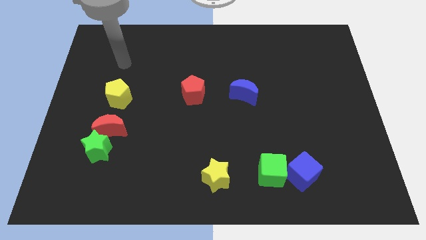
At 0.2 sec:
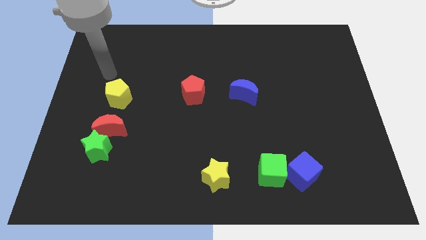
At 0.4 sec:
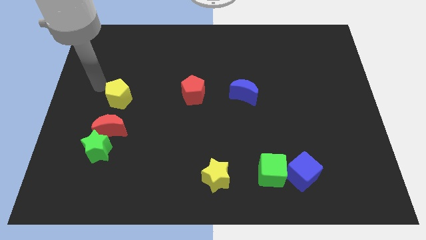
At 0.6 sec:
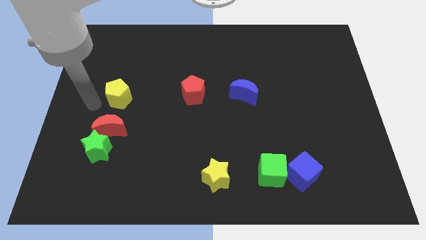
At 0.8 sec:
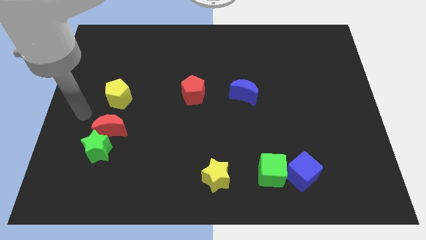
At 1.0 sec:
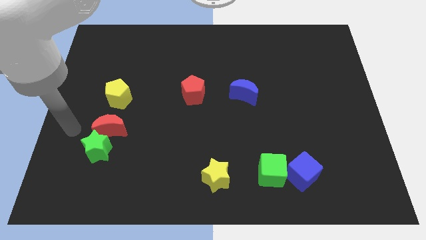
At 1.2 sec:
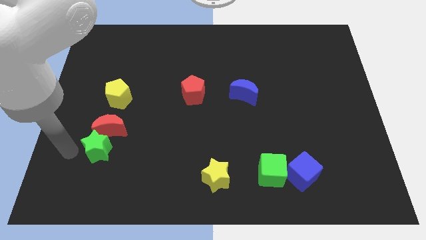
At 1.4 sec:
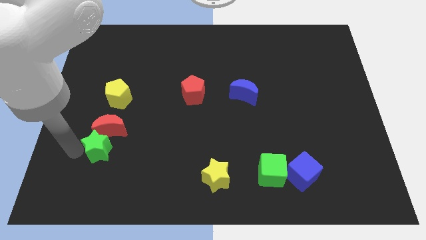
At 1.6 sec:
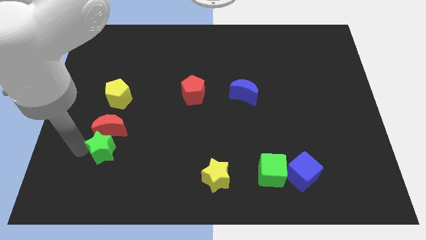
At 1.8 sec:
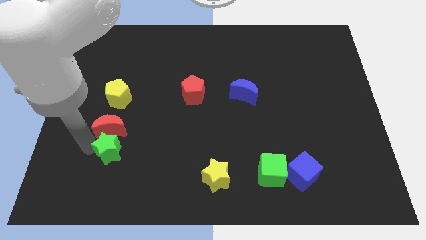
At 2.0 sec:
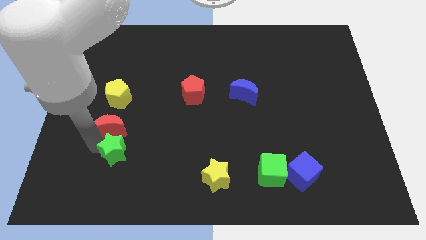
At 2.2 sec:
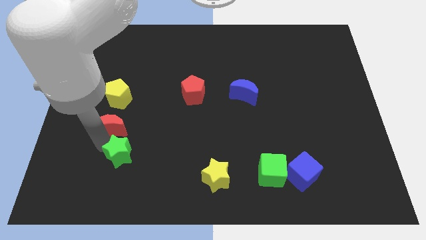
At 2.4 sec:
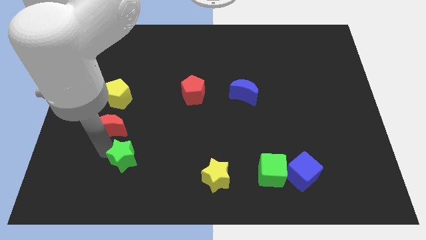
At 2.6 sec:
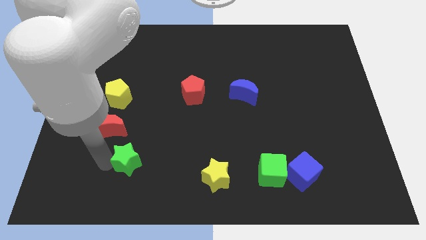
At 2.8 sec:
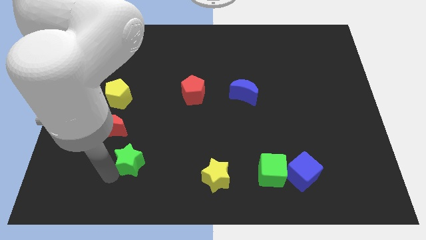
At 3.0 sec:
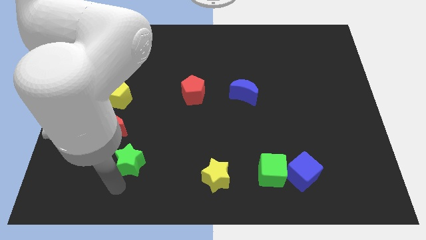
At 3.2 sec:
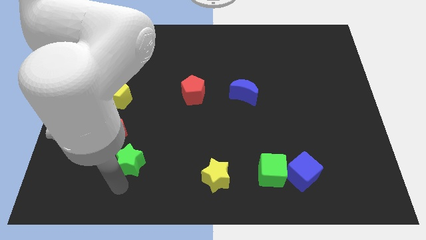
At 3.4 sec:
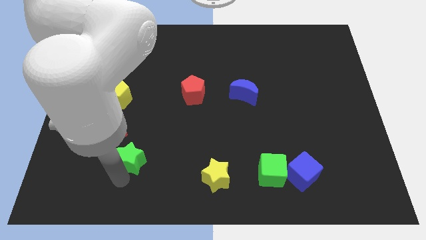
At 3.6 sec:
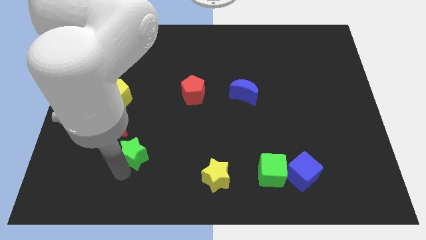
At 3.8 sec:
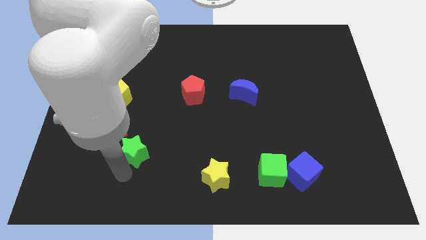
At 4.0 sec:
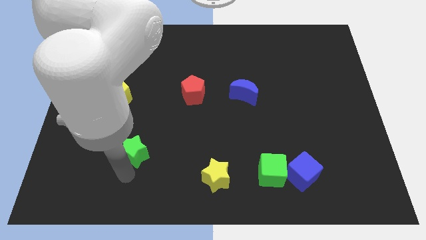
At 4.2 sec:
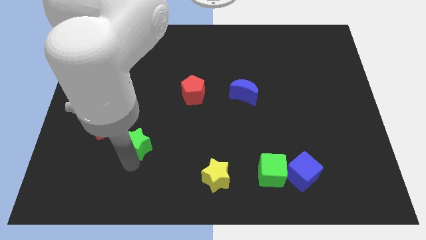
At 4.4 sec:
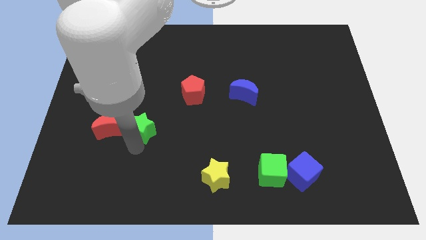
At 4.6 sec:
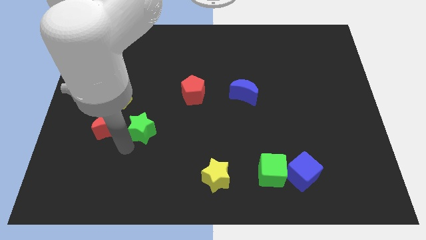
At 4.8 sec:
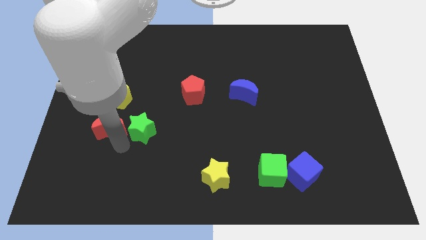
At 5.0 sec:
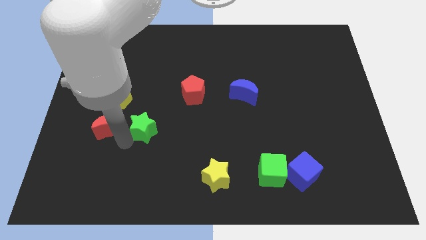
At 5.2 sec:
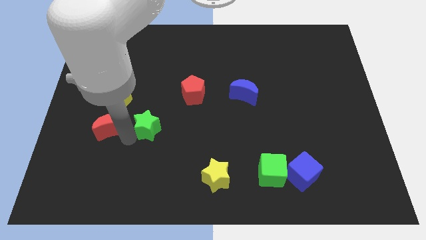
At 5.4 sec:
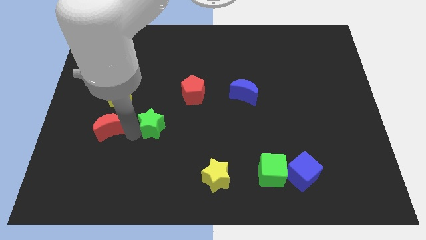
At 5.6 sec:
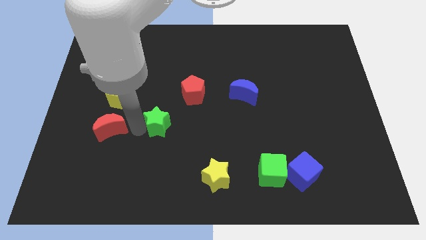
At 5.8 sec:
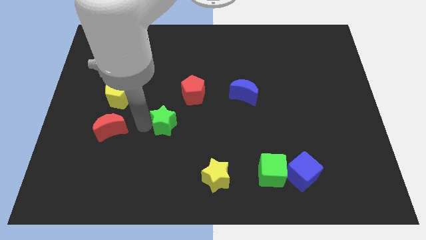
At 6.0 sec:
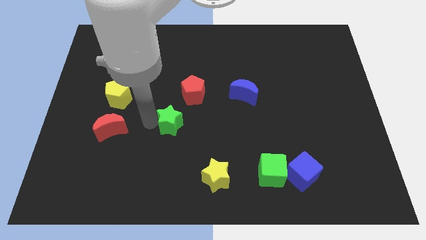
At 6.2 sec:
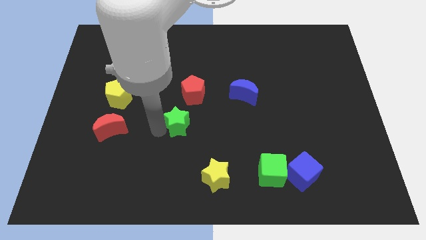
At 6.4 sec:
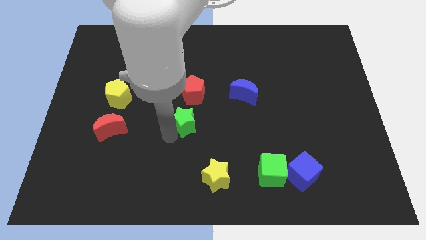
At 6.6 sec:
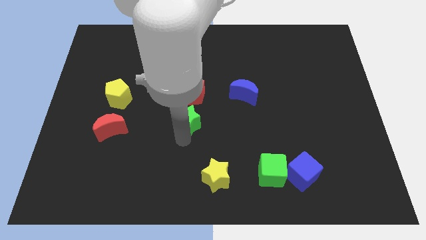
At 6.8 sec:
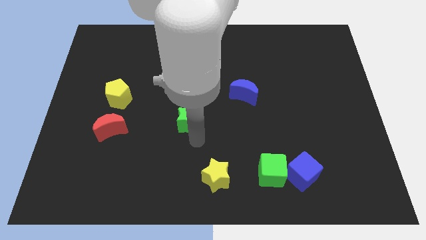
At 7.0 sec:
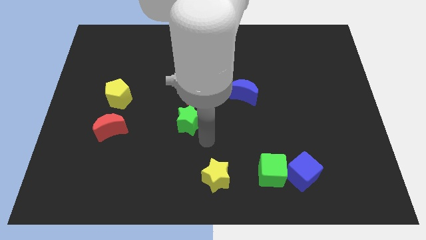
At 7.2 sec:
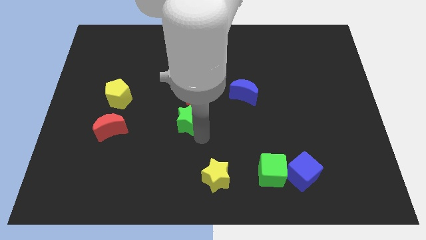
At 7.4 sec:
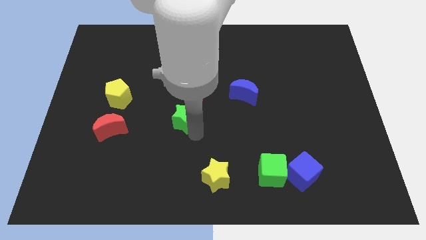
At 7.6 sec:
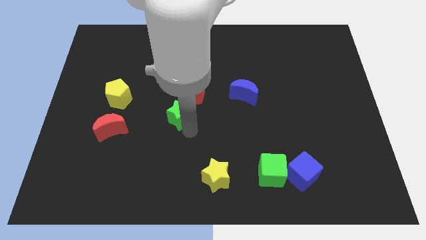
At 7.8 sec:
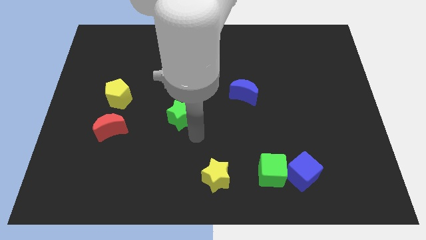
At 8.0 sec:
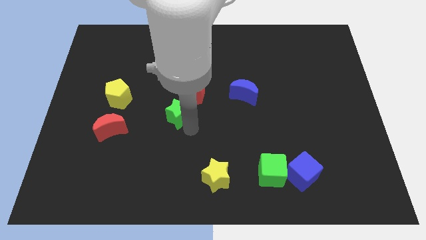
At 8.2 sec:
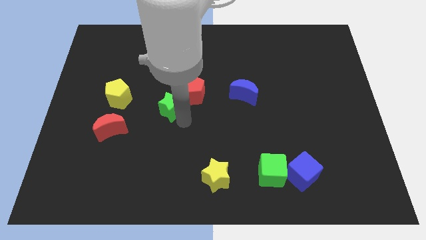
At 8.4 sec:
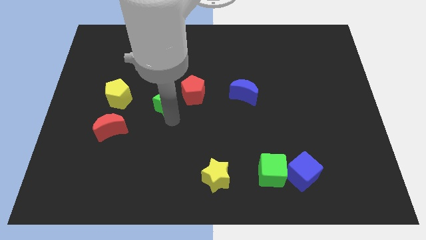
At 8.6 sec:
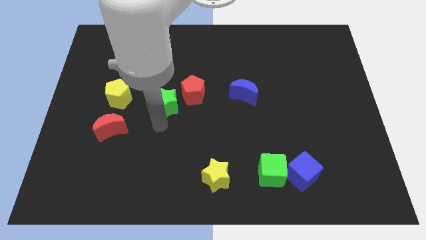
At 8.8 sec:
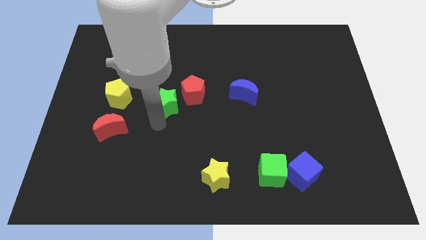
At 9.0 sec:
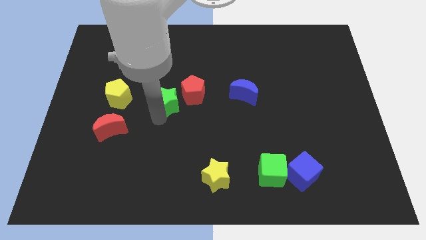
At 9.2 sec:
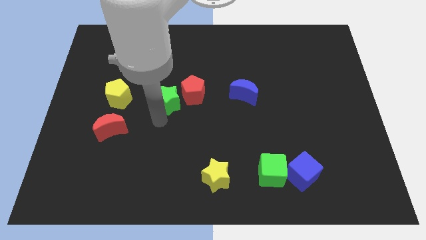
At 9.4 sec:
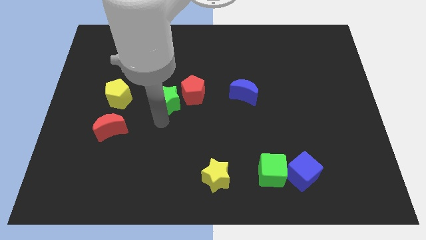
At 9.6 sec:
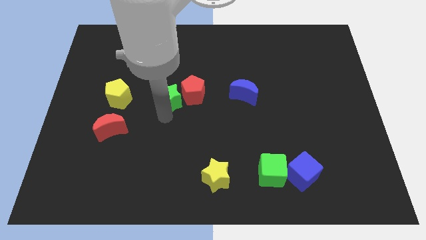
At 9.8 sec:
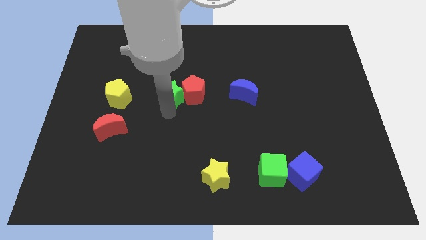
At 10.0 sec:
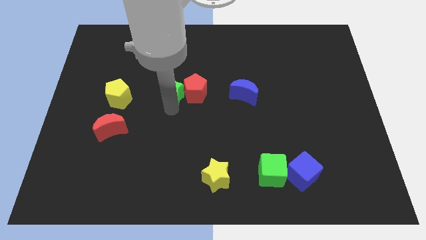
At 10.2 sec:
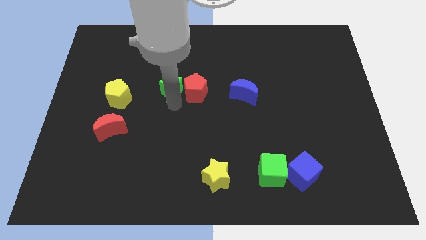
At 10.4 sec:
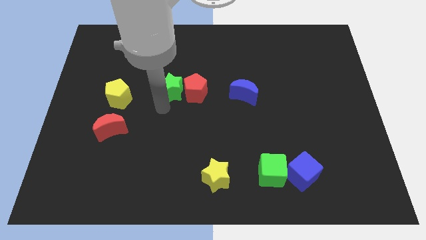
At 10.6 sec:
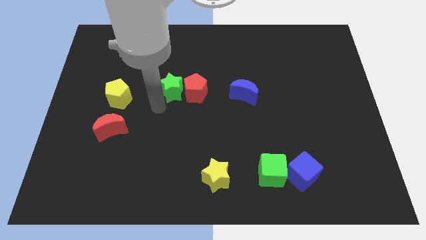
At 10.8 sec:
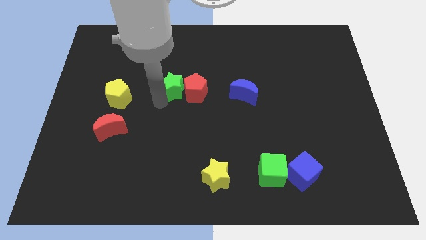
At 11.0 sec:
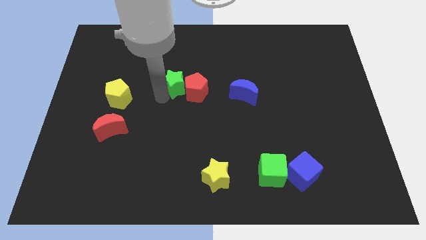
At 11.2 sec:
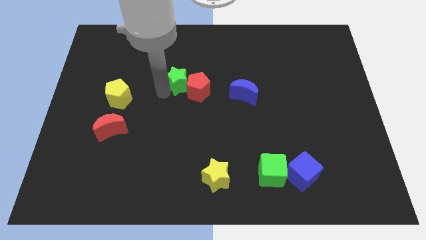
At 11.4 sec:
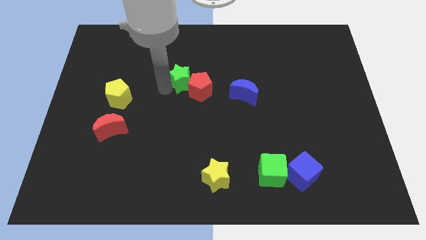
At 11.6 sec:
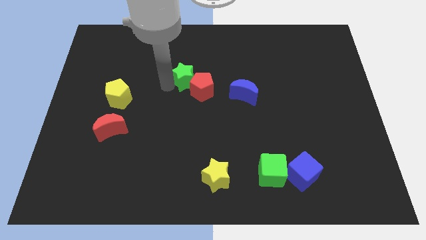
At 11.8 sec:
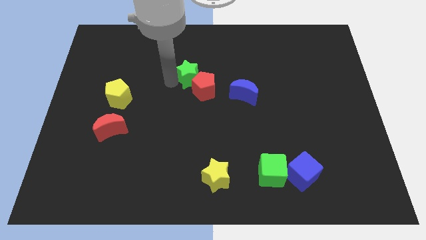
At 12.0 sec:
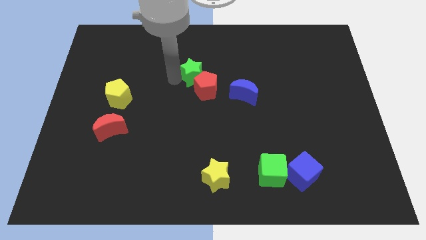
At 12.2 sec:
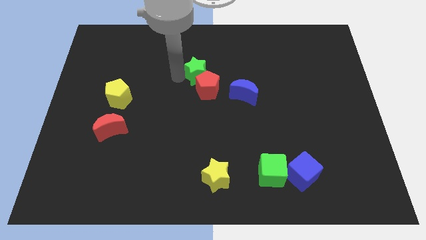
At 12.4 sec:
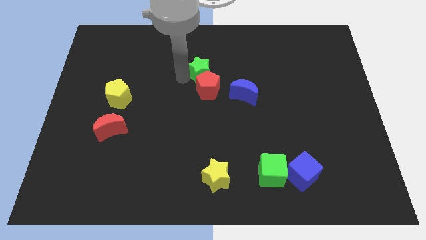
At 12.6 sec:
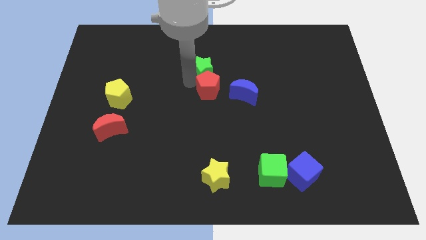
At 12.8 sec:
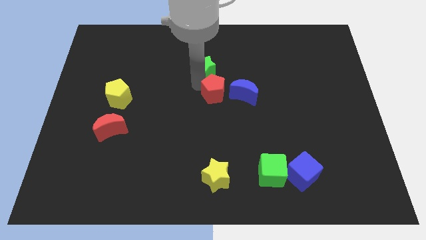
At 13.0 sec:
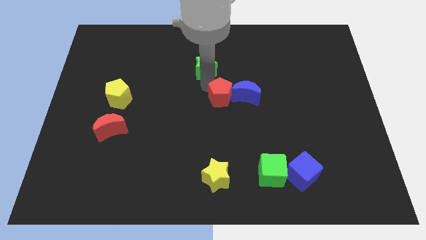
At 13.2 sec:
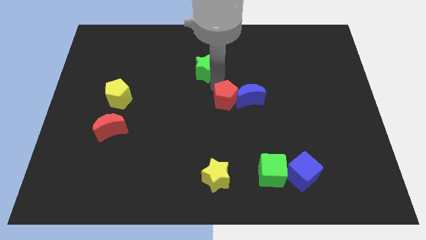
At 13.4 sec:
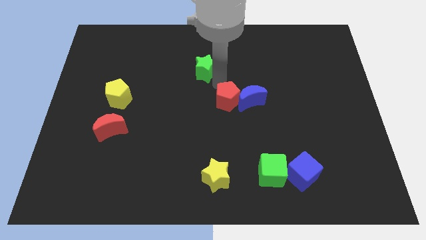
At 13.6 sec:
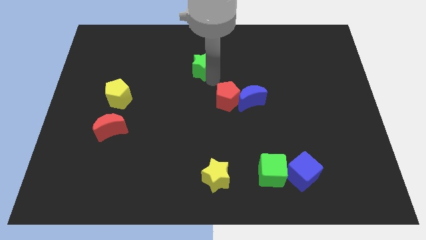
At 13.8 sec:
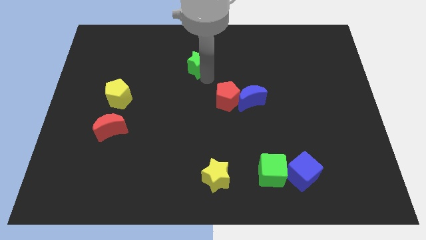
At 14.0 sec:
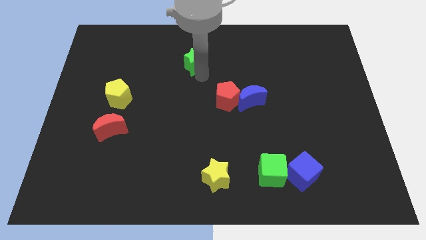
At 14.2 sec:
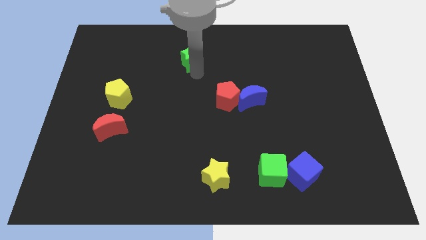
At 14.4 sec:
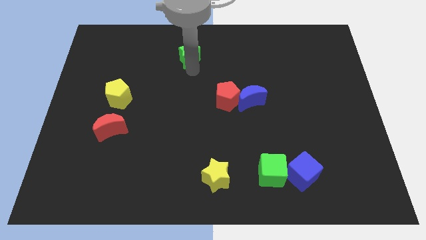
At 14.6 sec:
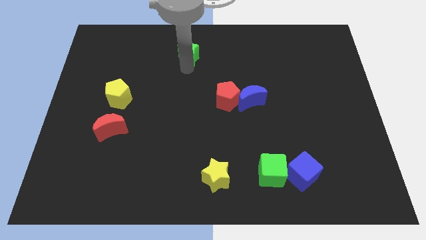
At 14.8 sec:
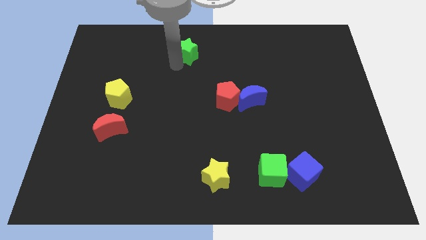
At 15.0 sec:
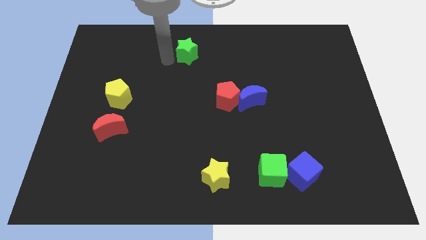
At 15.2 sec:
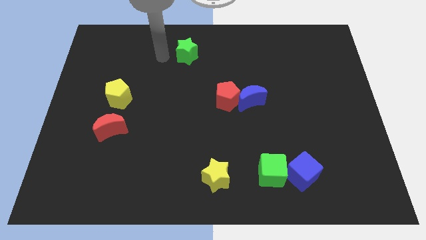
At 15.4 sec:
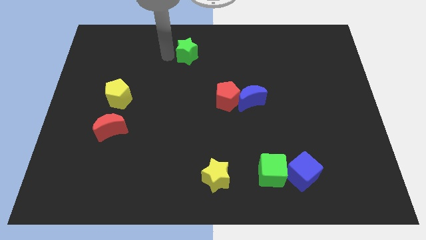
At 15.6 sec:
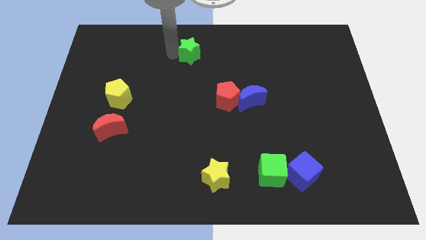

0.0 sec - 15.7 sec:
slide the green star to the top
